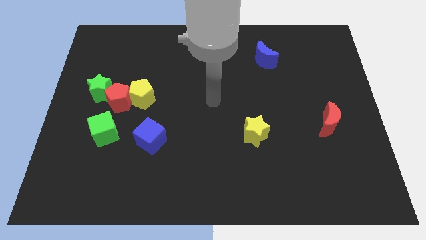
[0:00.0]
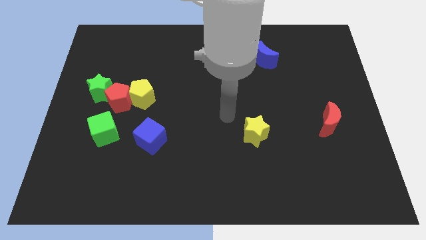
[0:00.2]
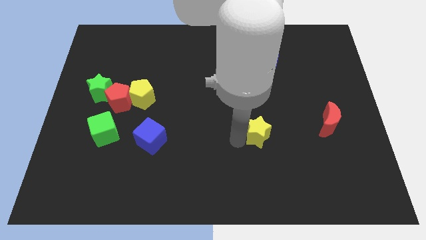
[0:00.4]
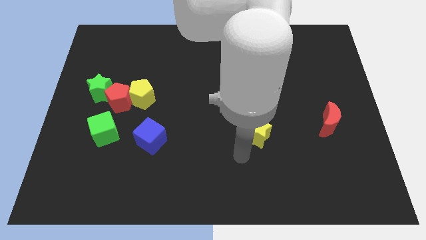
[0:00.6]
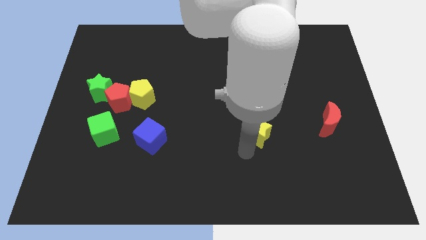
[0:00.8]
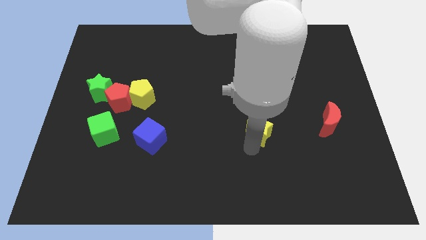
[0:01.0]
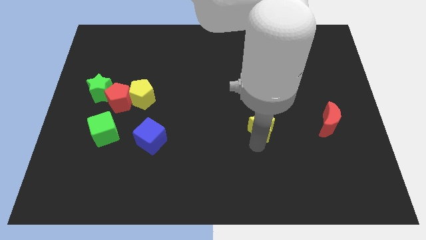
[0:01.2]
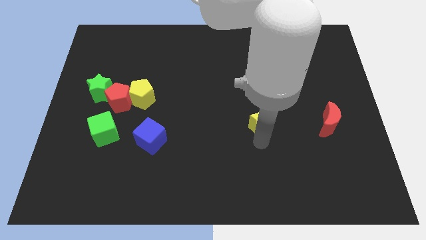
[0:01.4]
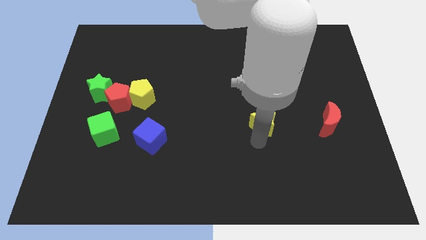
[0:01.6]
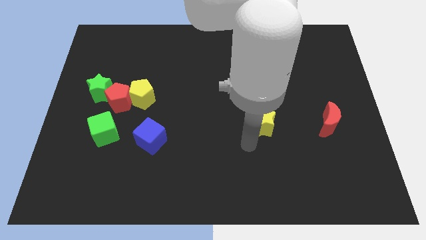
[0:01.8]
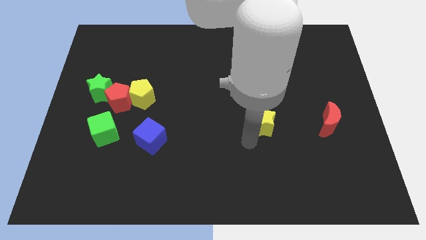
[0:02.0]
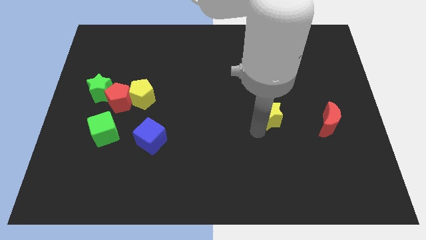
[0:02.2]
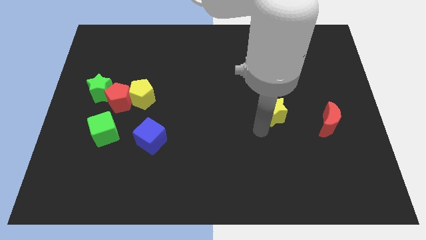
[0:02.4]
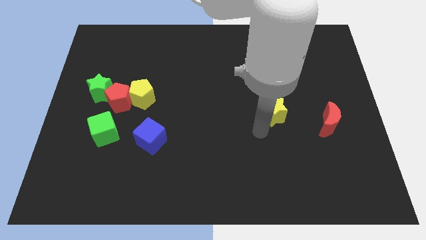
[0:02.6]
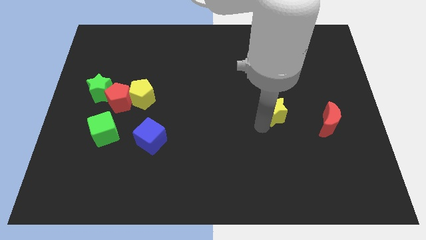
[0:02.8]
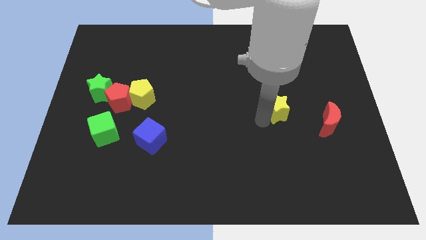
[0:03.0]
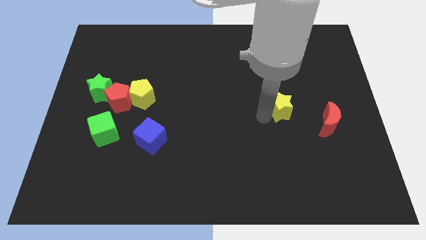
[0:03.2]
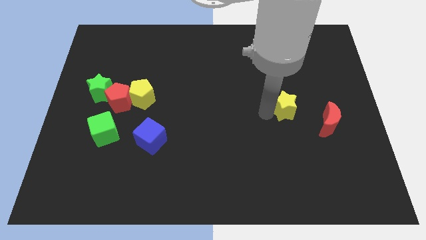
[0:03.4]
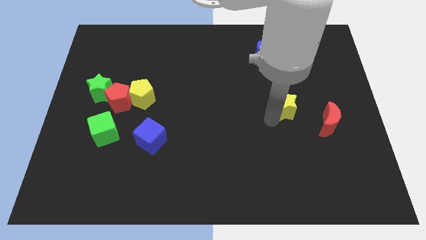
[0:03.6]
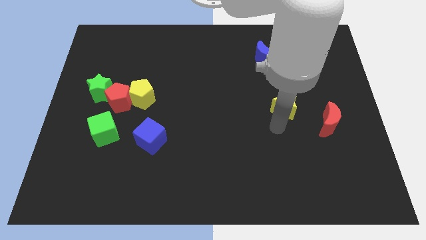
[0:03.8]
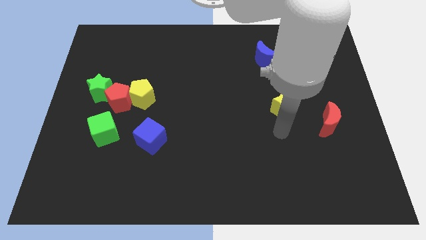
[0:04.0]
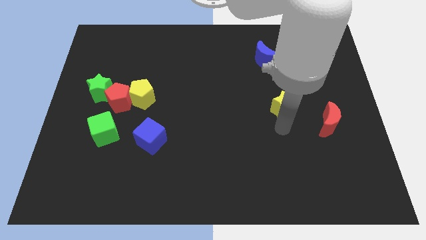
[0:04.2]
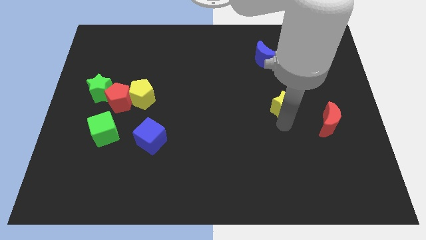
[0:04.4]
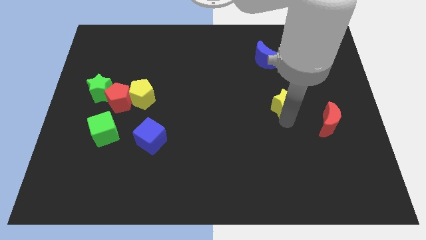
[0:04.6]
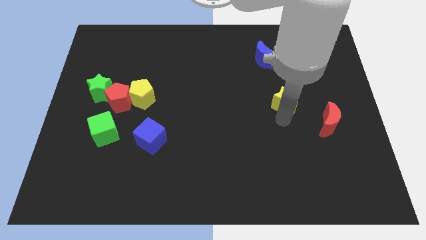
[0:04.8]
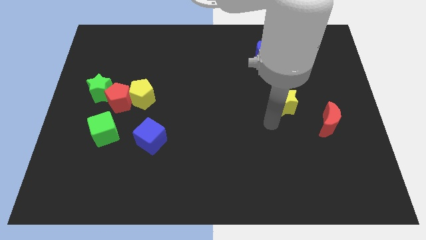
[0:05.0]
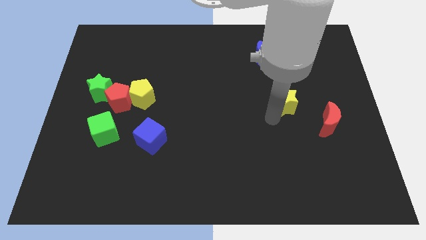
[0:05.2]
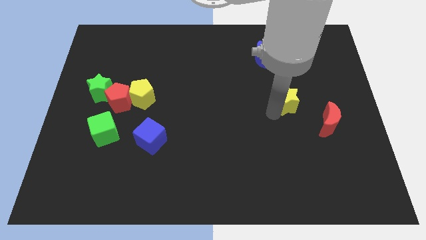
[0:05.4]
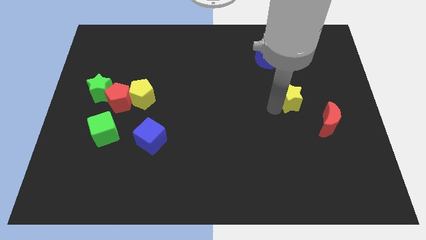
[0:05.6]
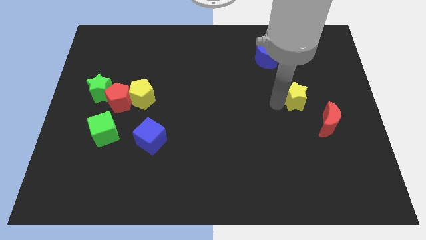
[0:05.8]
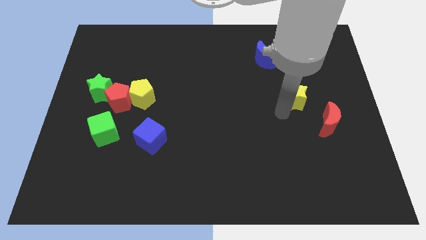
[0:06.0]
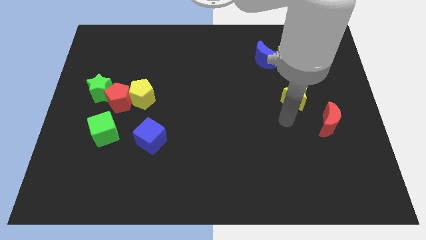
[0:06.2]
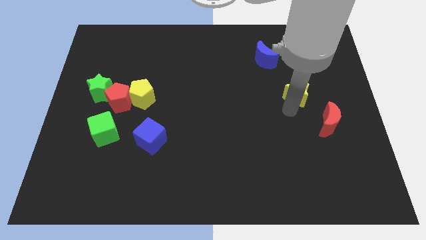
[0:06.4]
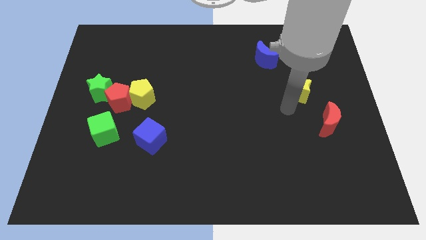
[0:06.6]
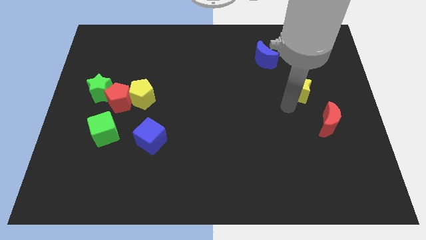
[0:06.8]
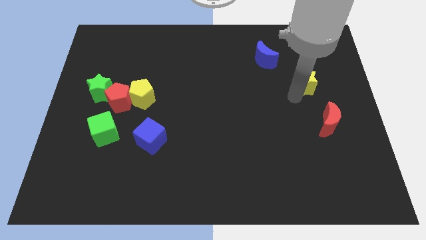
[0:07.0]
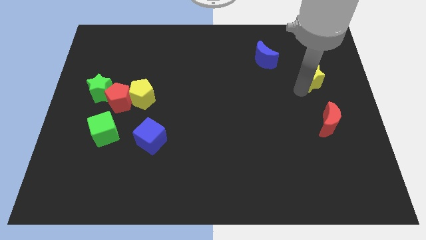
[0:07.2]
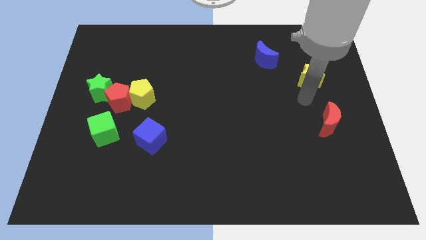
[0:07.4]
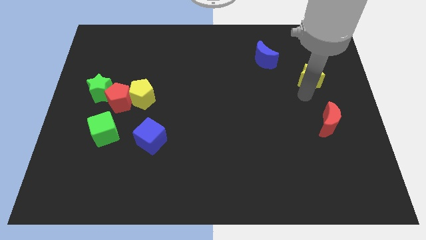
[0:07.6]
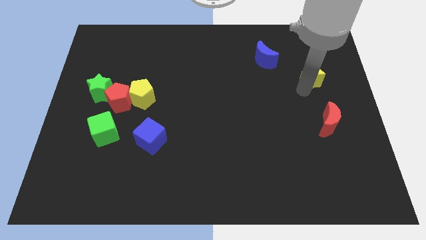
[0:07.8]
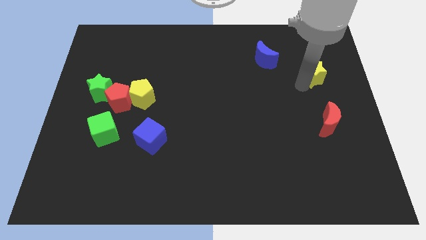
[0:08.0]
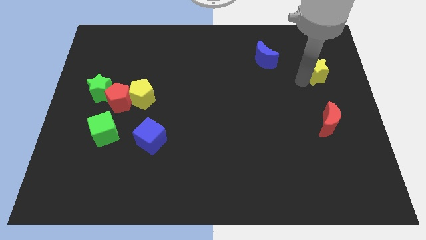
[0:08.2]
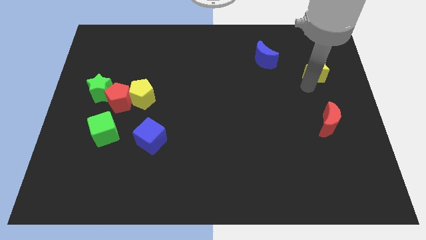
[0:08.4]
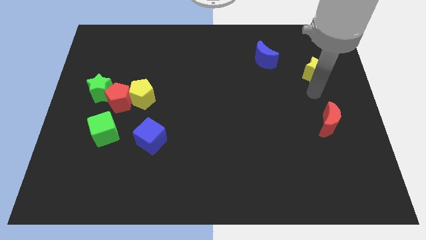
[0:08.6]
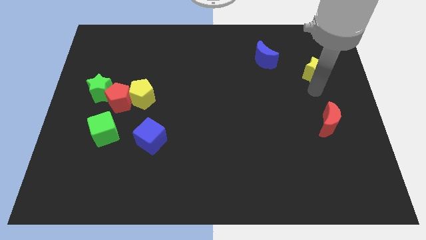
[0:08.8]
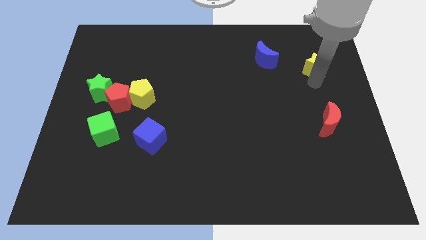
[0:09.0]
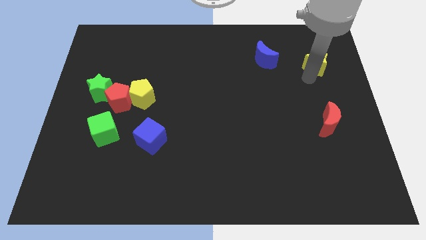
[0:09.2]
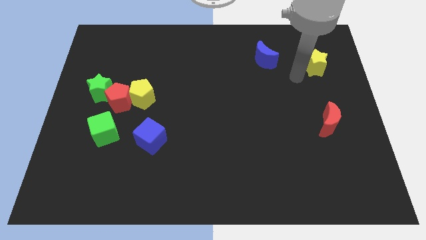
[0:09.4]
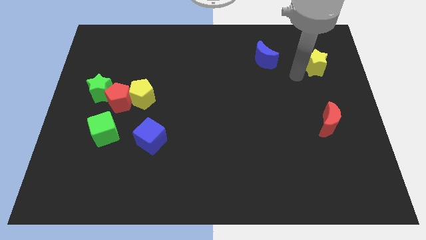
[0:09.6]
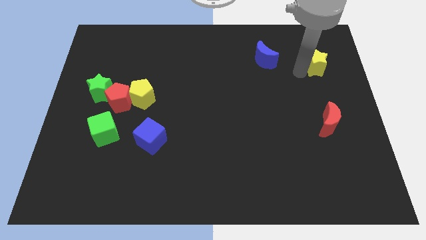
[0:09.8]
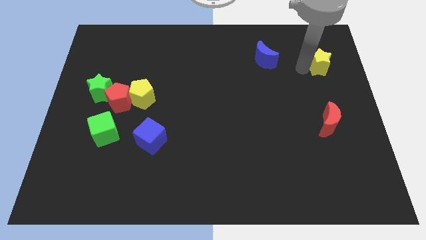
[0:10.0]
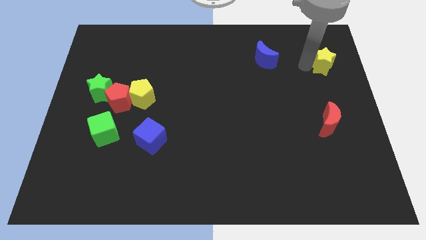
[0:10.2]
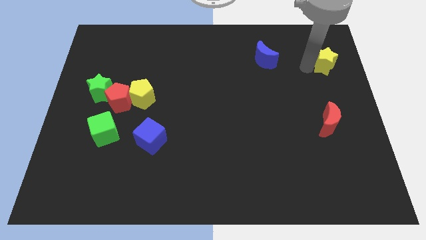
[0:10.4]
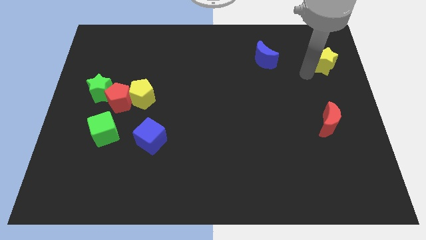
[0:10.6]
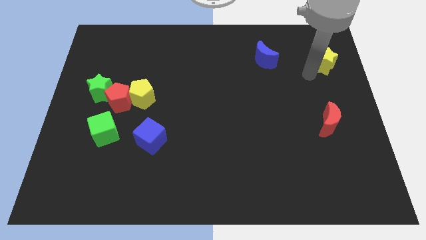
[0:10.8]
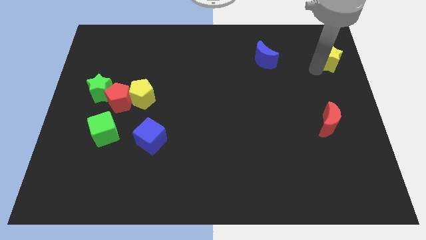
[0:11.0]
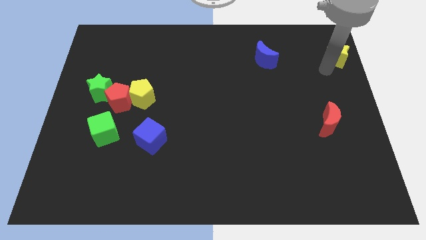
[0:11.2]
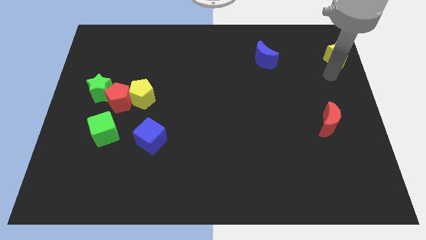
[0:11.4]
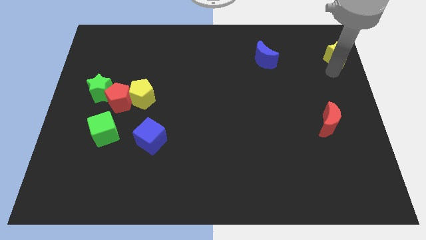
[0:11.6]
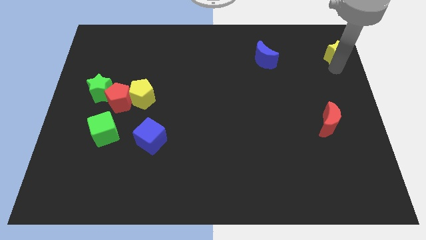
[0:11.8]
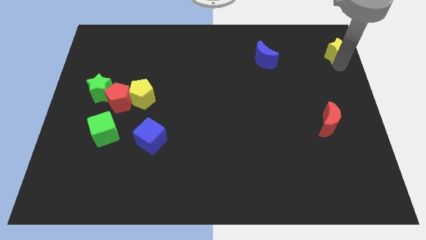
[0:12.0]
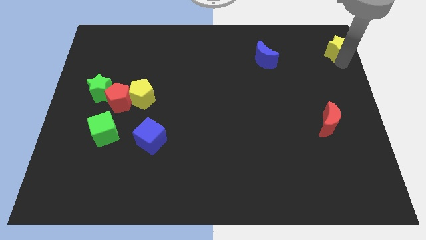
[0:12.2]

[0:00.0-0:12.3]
move the yellow star to the top right

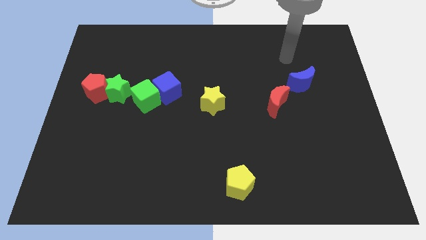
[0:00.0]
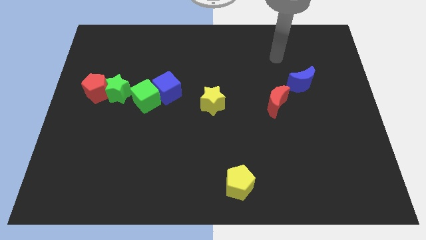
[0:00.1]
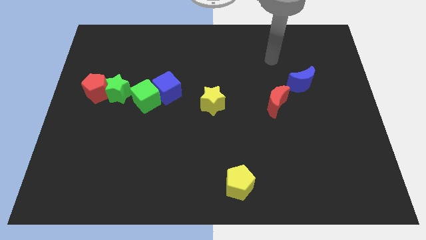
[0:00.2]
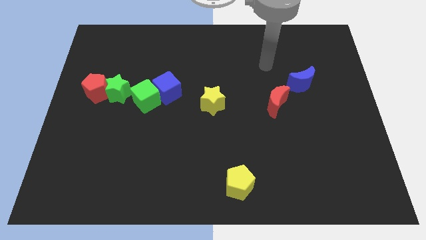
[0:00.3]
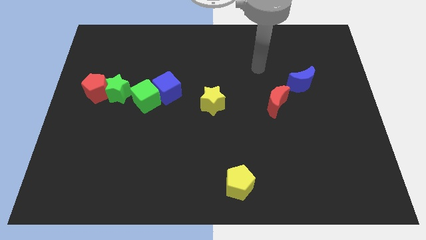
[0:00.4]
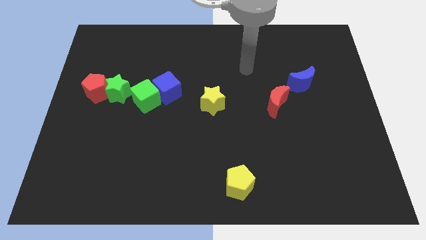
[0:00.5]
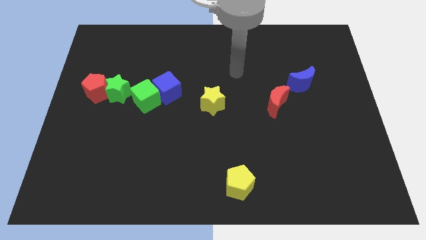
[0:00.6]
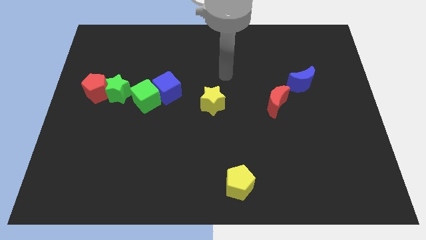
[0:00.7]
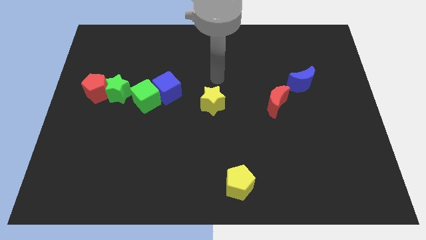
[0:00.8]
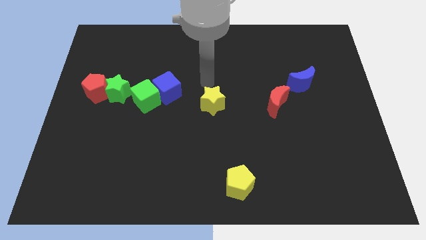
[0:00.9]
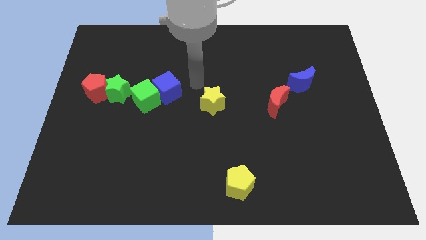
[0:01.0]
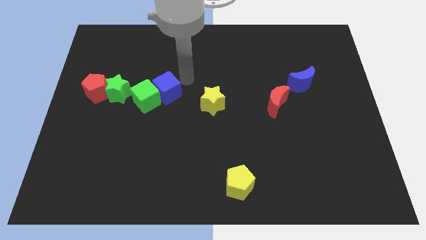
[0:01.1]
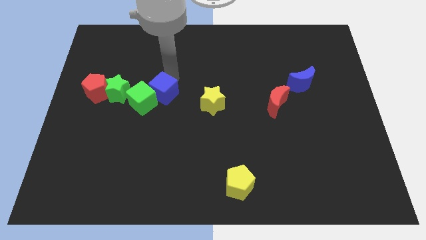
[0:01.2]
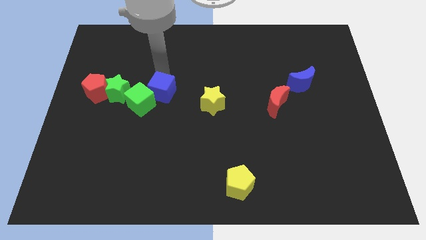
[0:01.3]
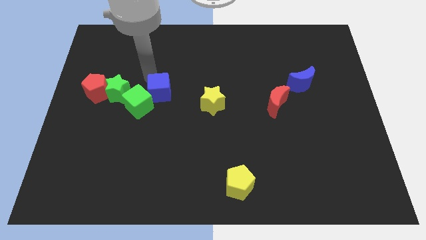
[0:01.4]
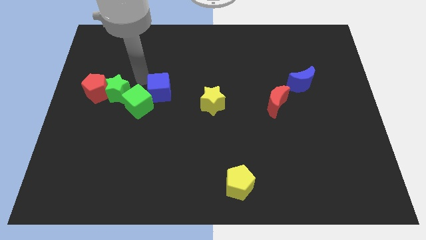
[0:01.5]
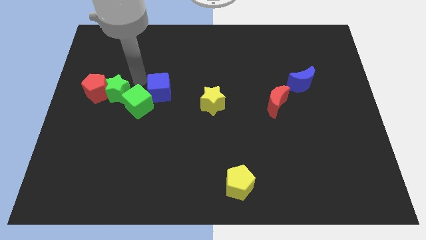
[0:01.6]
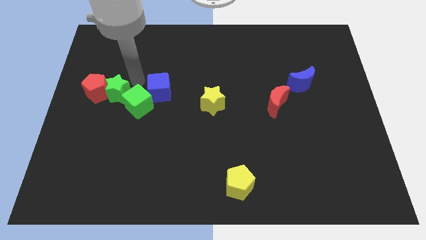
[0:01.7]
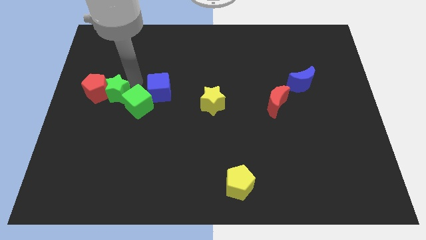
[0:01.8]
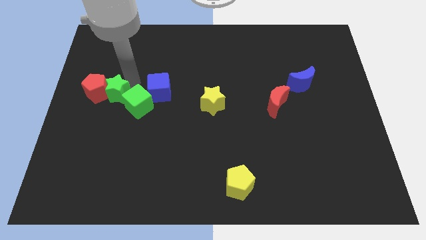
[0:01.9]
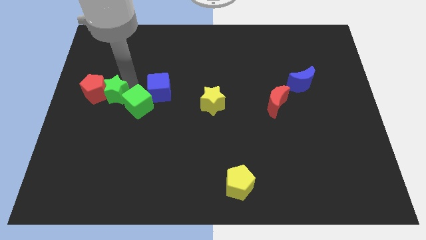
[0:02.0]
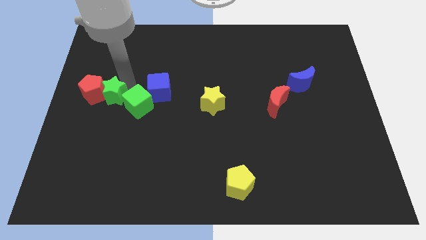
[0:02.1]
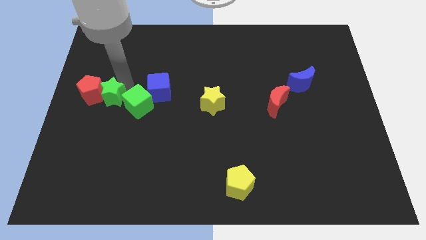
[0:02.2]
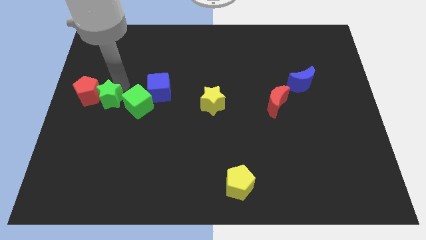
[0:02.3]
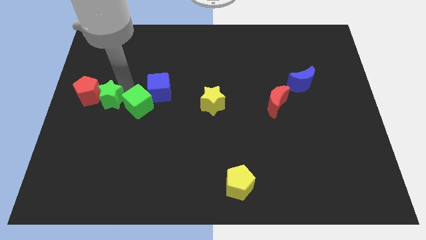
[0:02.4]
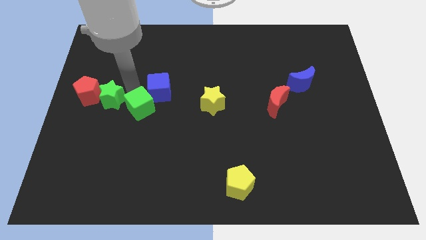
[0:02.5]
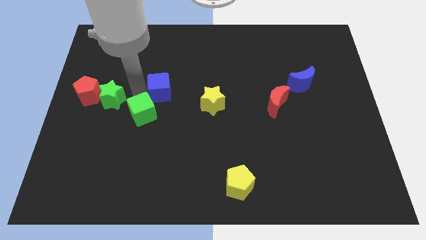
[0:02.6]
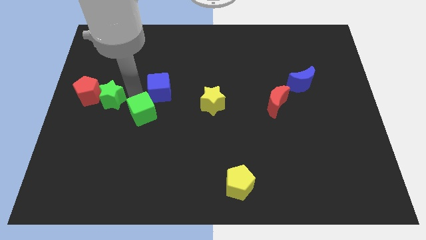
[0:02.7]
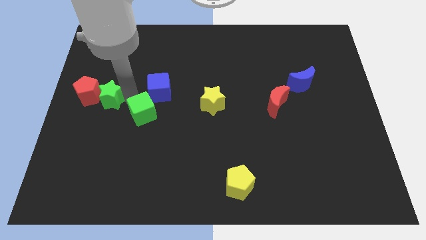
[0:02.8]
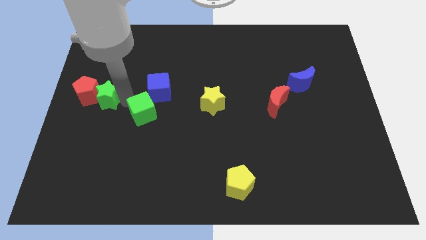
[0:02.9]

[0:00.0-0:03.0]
push the green star to the left side of the board
